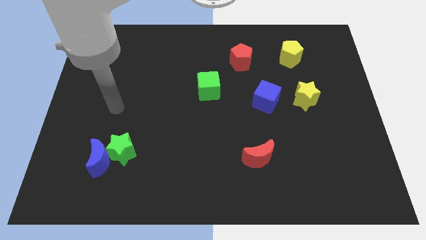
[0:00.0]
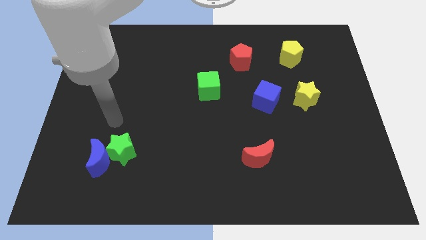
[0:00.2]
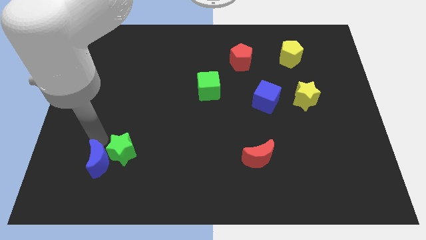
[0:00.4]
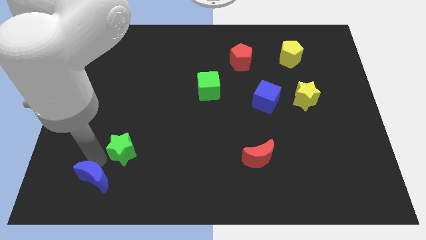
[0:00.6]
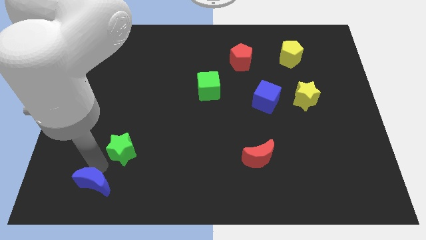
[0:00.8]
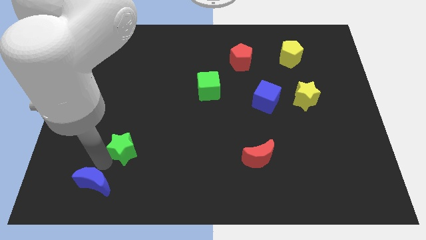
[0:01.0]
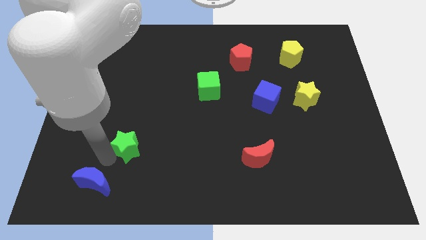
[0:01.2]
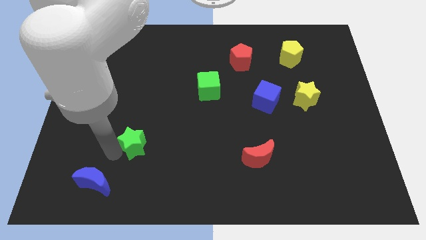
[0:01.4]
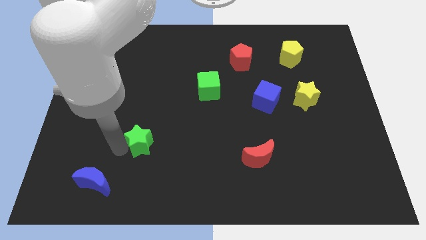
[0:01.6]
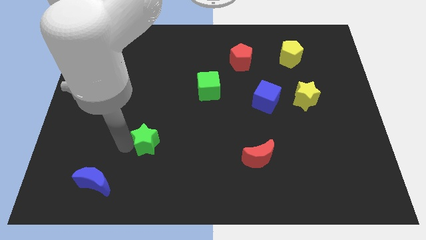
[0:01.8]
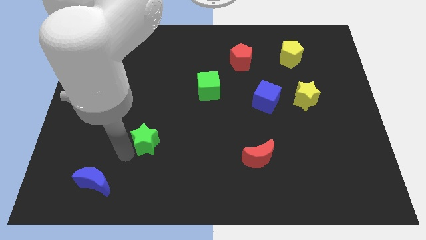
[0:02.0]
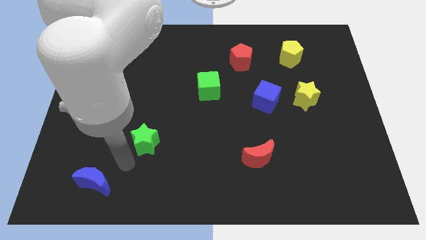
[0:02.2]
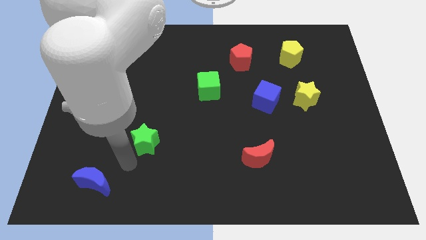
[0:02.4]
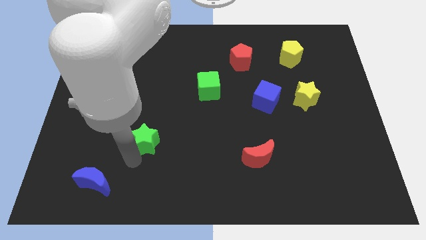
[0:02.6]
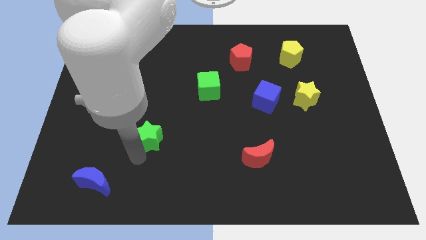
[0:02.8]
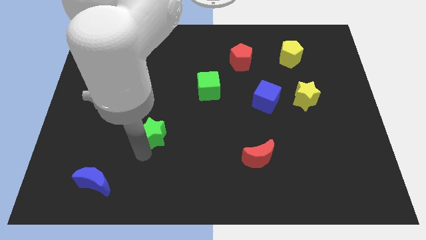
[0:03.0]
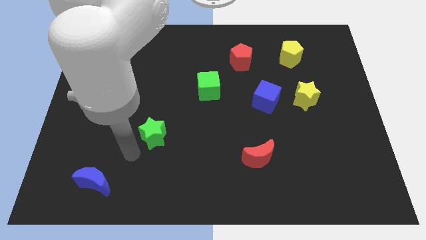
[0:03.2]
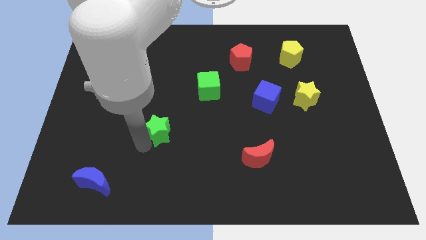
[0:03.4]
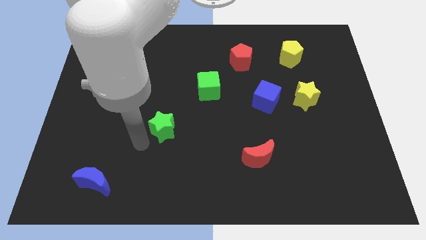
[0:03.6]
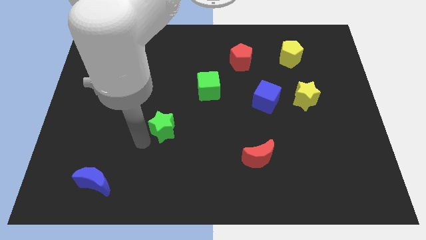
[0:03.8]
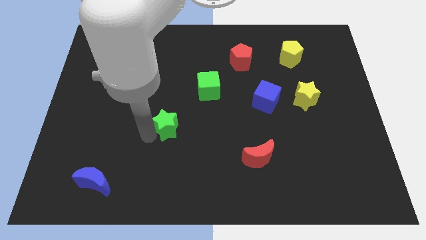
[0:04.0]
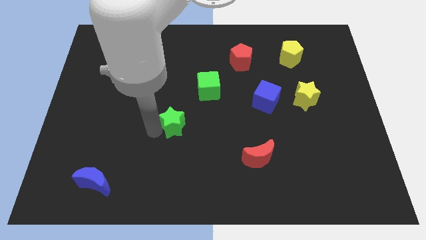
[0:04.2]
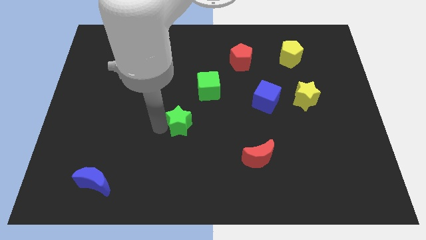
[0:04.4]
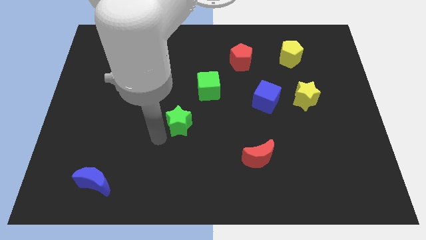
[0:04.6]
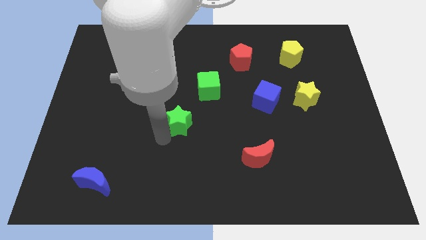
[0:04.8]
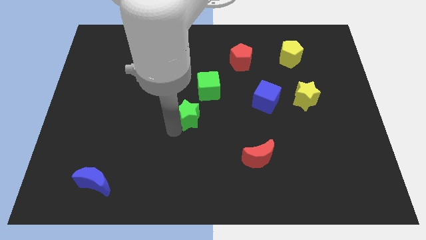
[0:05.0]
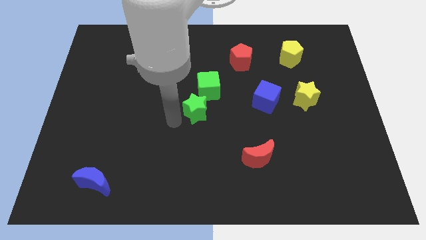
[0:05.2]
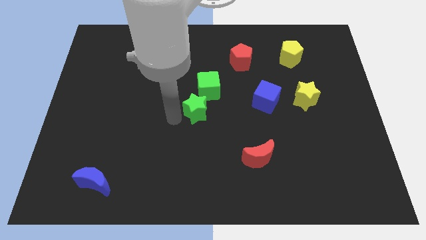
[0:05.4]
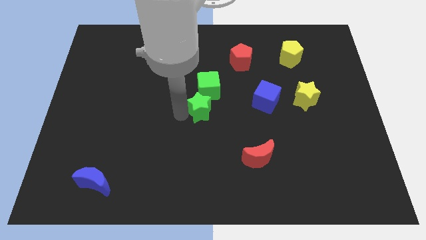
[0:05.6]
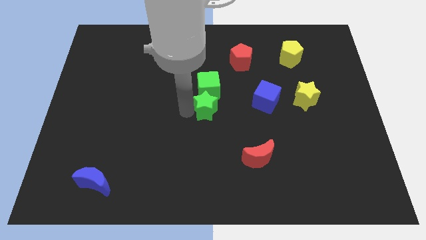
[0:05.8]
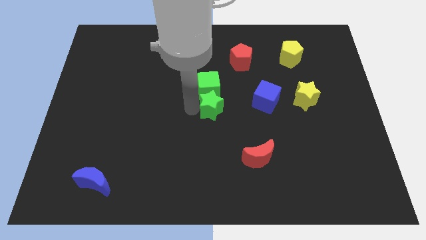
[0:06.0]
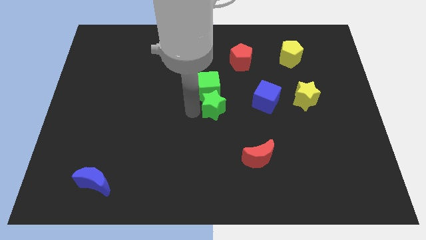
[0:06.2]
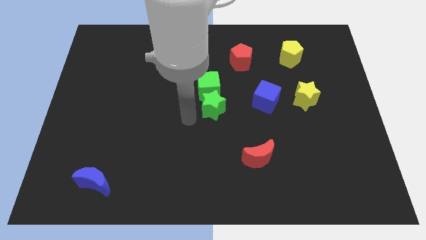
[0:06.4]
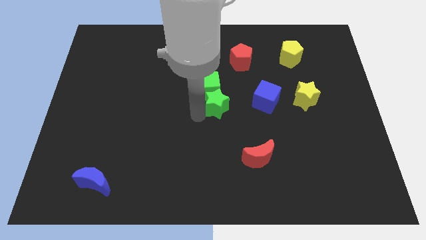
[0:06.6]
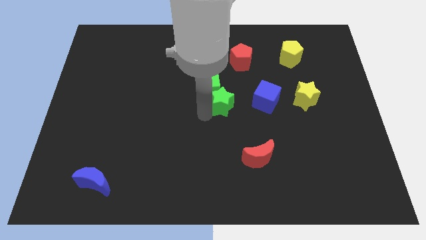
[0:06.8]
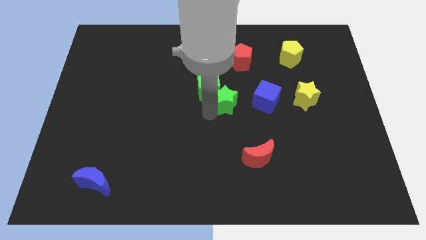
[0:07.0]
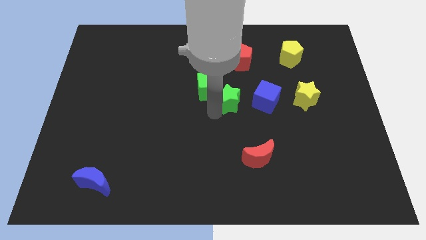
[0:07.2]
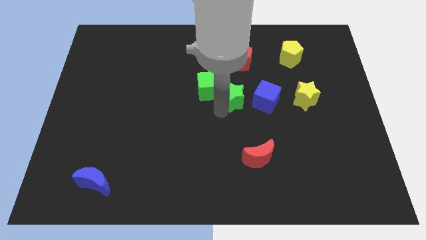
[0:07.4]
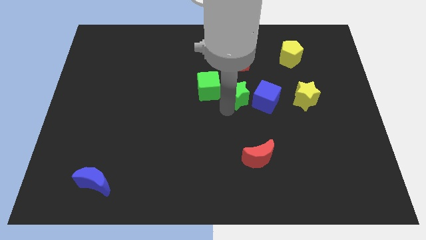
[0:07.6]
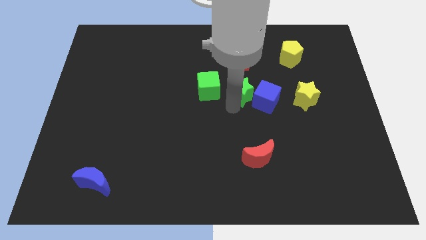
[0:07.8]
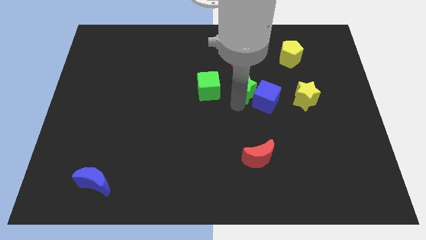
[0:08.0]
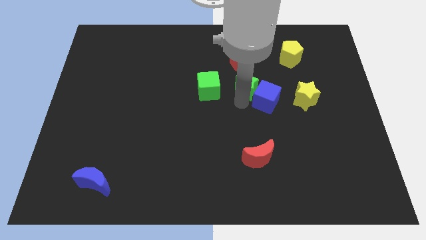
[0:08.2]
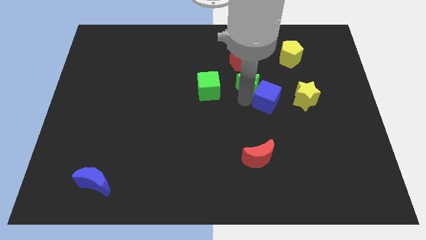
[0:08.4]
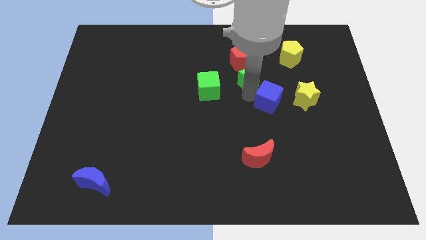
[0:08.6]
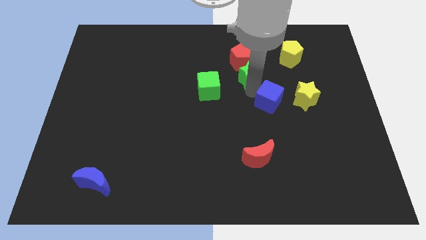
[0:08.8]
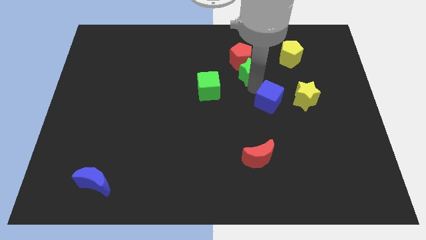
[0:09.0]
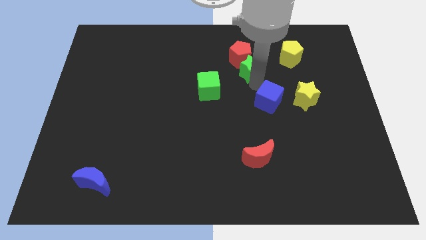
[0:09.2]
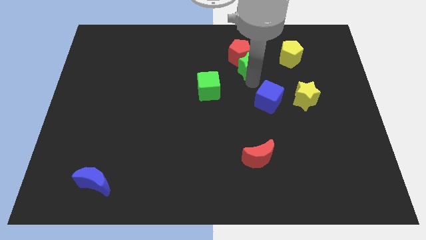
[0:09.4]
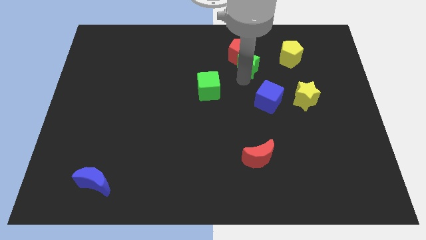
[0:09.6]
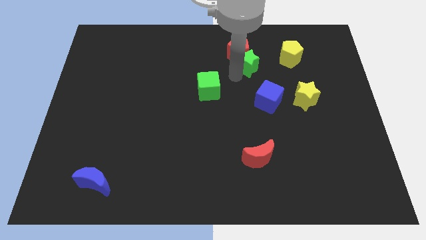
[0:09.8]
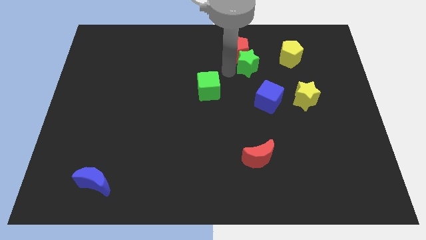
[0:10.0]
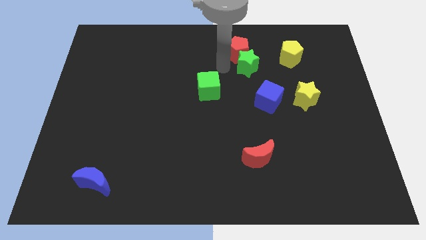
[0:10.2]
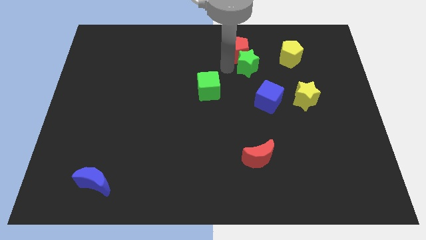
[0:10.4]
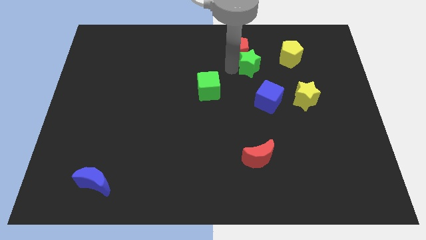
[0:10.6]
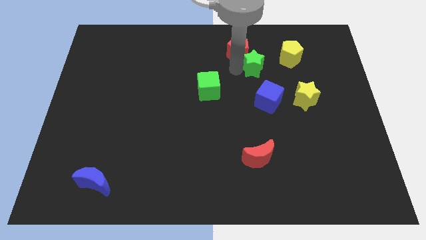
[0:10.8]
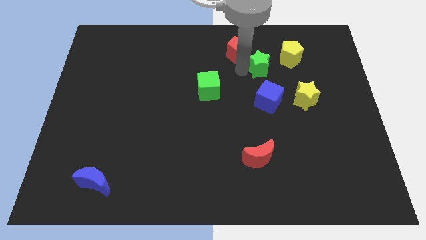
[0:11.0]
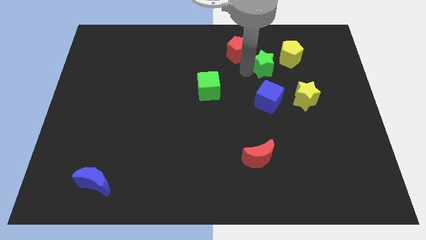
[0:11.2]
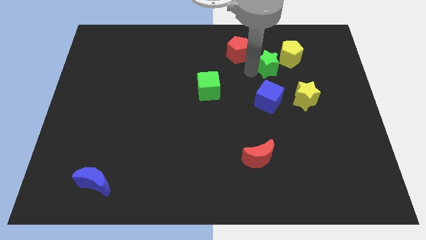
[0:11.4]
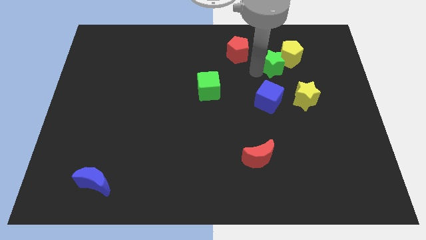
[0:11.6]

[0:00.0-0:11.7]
put the green star next to the yellow pentagon

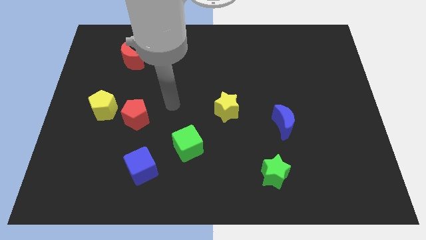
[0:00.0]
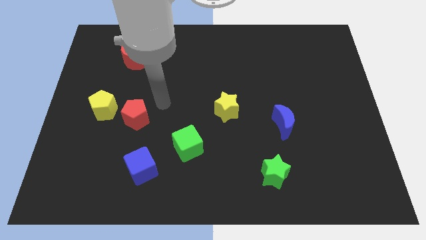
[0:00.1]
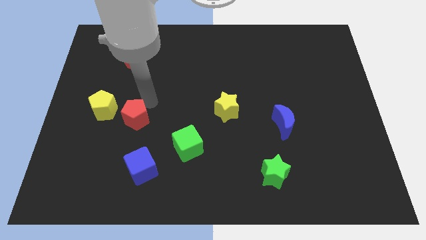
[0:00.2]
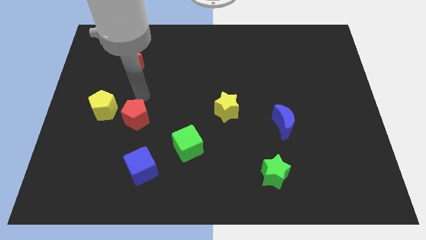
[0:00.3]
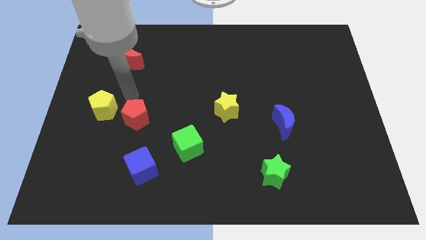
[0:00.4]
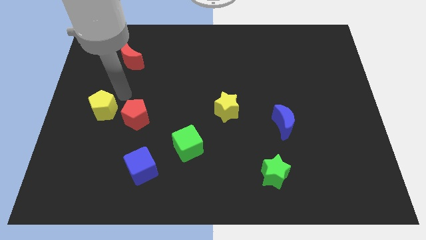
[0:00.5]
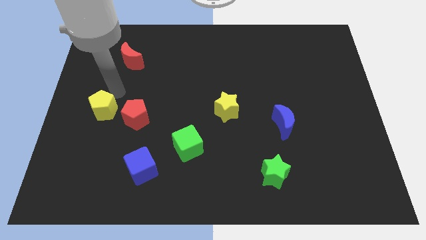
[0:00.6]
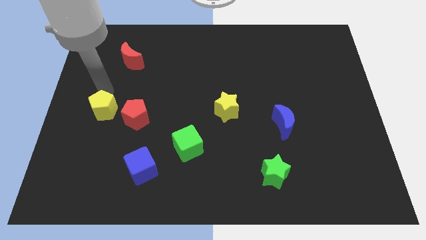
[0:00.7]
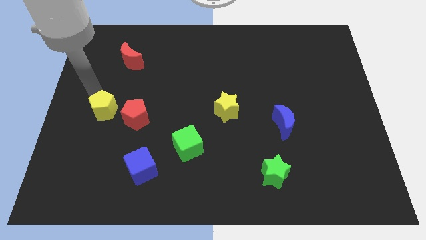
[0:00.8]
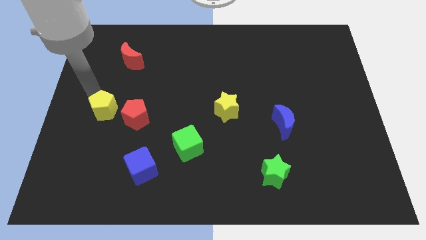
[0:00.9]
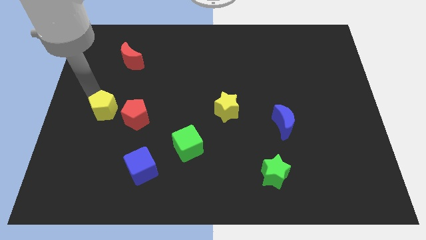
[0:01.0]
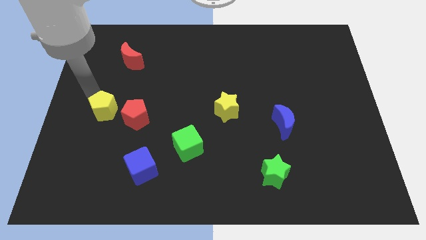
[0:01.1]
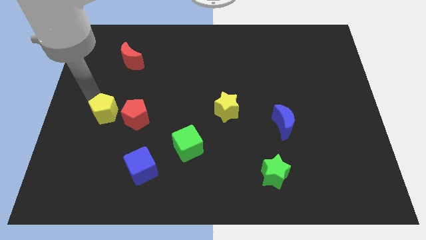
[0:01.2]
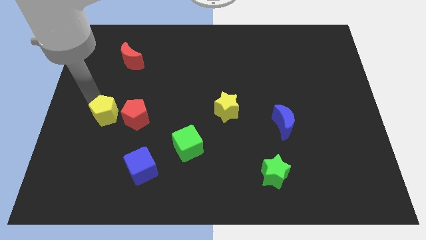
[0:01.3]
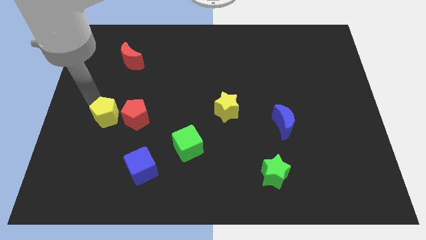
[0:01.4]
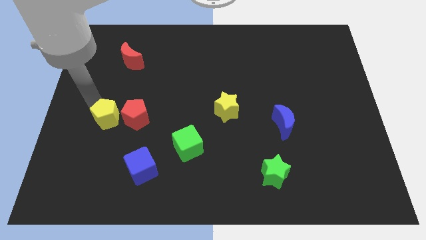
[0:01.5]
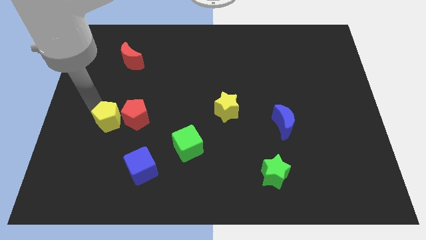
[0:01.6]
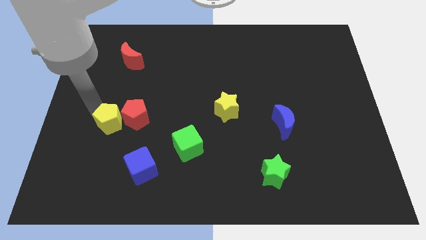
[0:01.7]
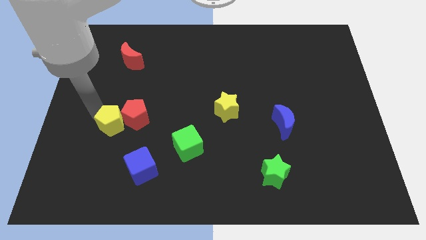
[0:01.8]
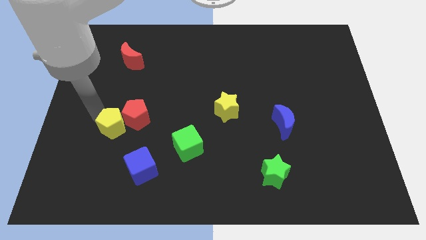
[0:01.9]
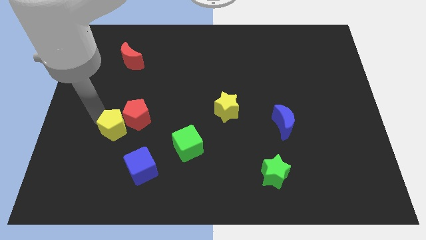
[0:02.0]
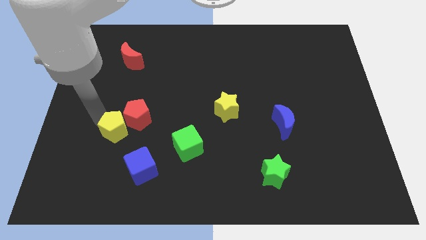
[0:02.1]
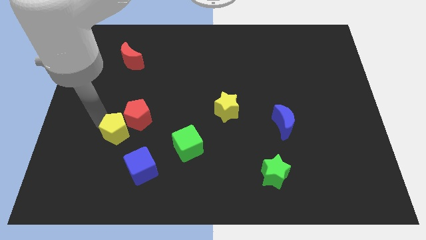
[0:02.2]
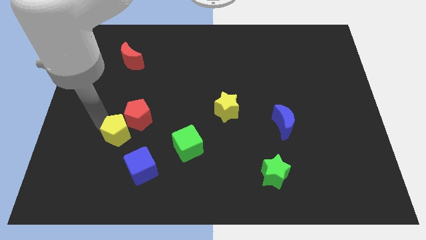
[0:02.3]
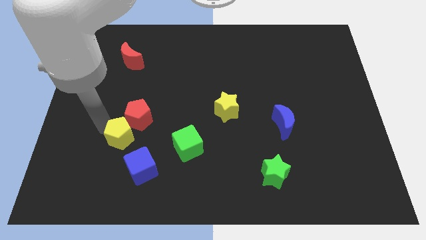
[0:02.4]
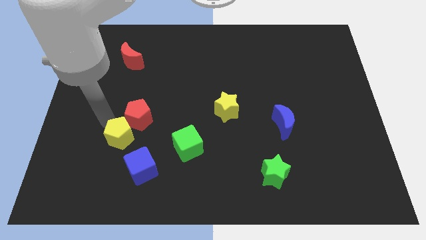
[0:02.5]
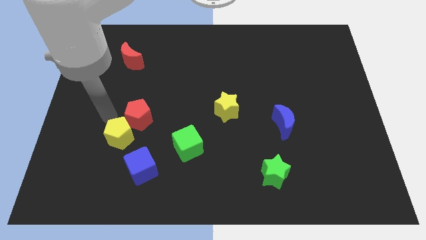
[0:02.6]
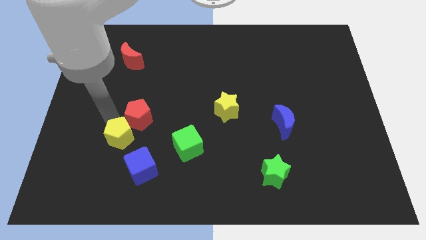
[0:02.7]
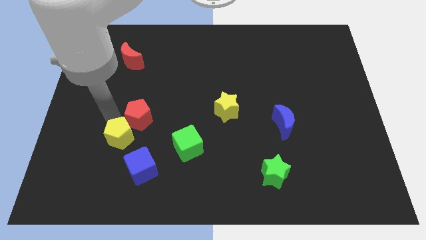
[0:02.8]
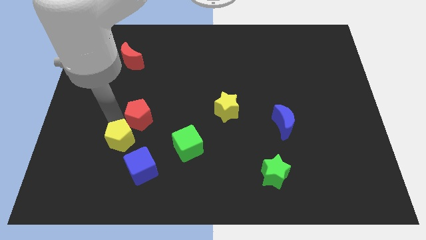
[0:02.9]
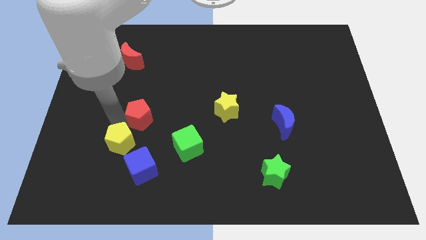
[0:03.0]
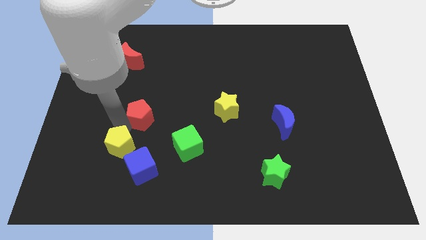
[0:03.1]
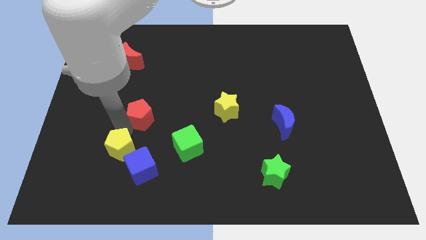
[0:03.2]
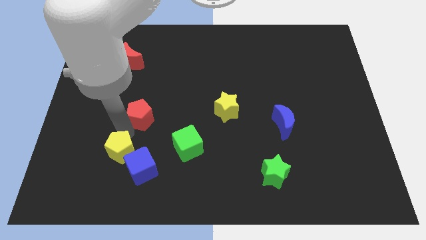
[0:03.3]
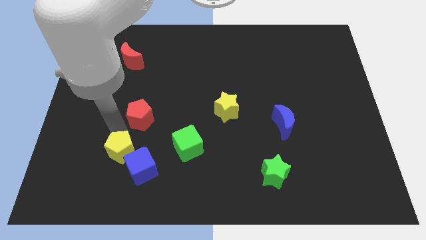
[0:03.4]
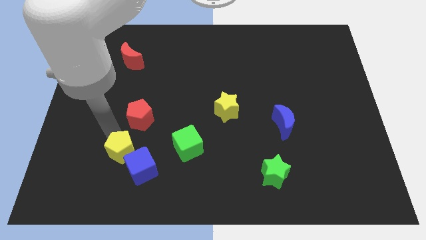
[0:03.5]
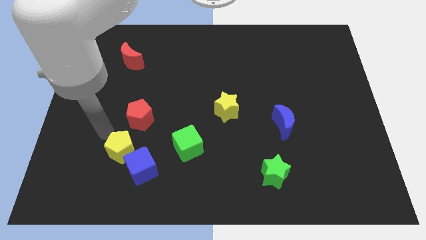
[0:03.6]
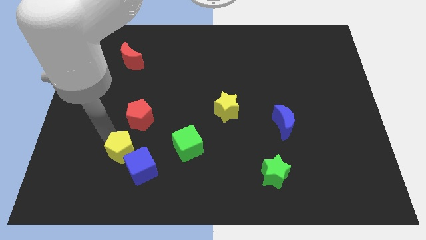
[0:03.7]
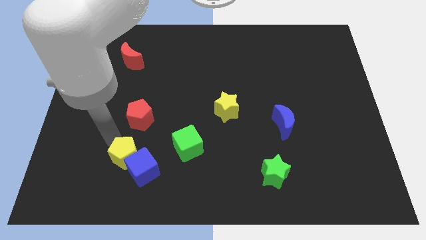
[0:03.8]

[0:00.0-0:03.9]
move the yellow pentagon towards the blue cube
